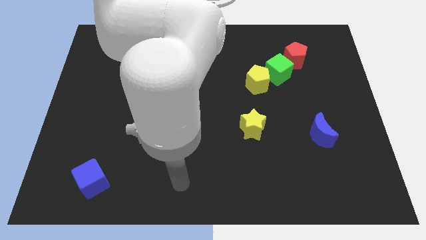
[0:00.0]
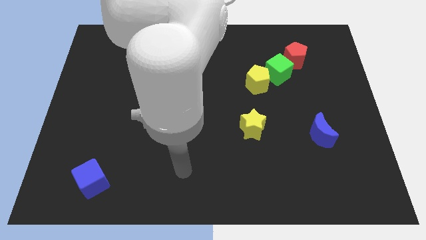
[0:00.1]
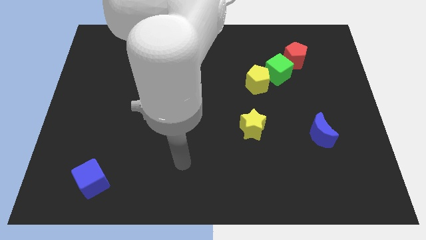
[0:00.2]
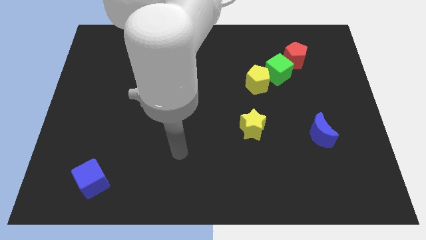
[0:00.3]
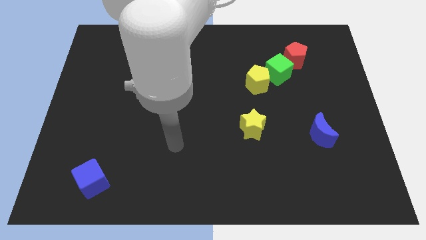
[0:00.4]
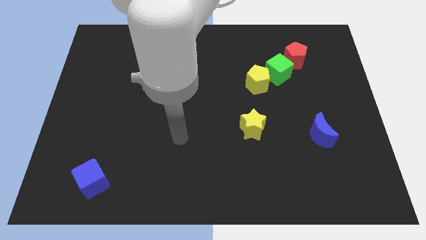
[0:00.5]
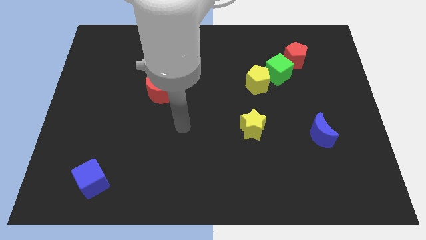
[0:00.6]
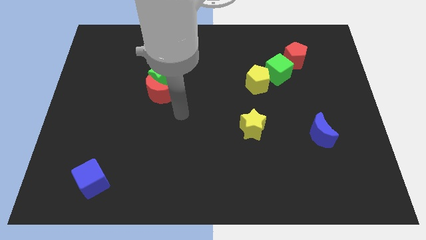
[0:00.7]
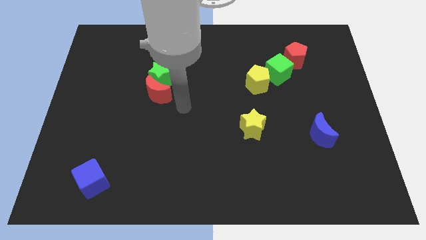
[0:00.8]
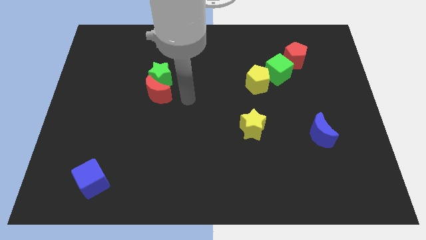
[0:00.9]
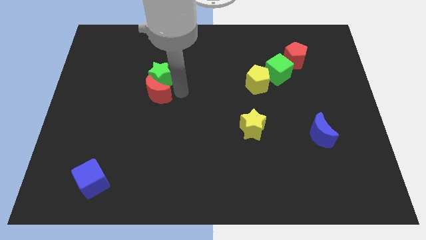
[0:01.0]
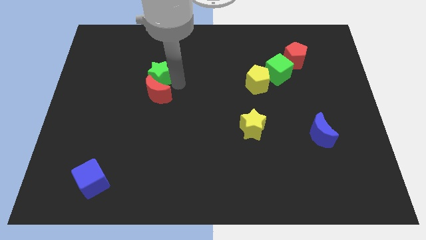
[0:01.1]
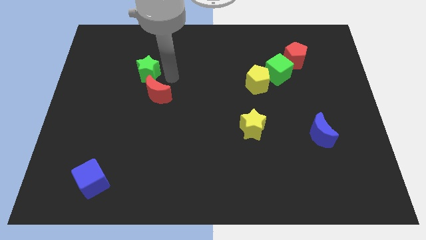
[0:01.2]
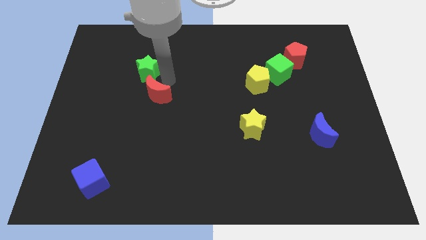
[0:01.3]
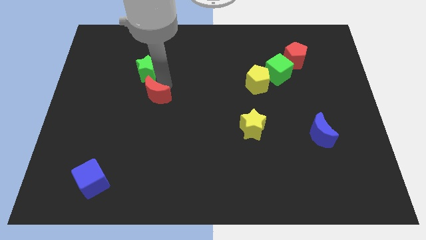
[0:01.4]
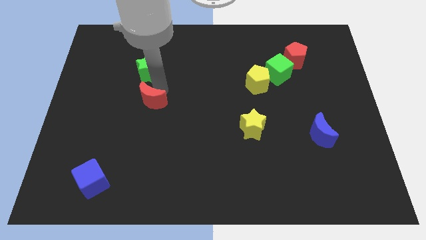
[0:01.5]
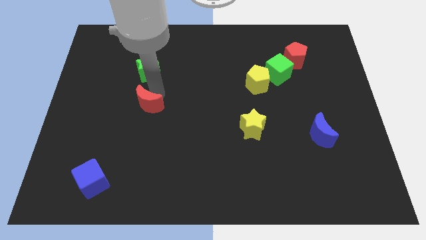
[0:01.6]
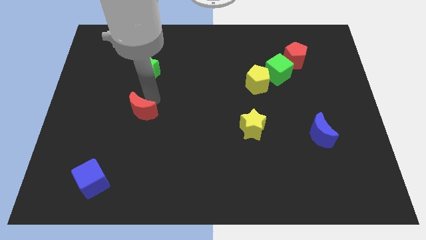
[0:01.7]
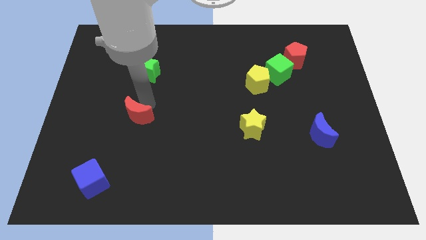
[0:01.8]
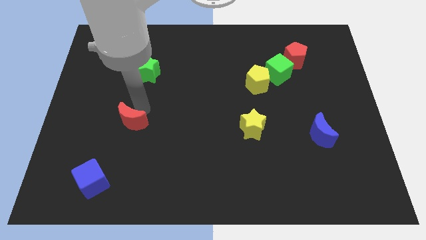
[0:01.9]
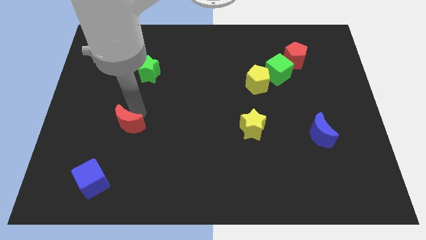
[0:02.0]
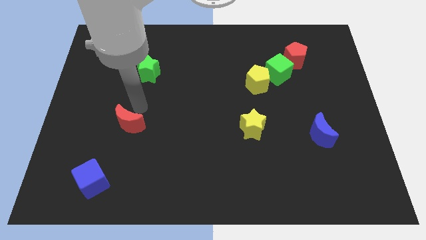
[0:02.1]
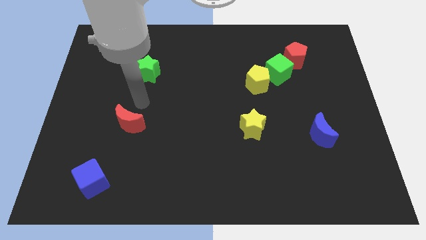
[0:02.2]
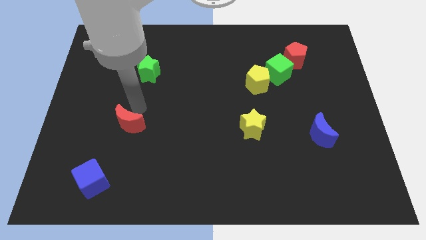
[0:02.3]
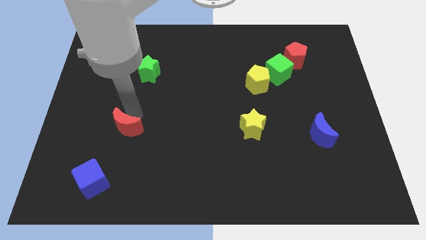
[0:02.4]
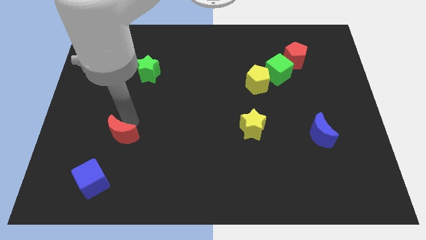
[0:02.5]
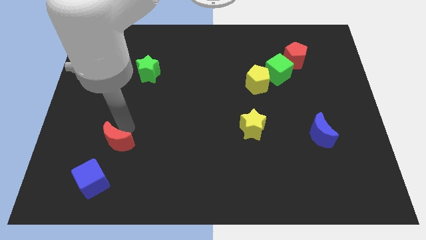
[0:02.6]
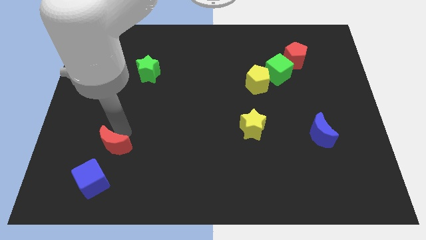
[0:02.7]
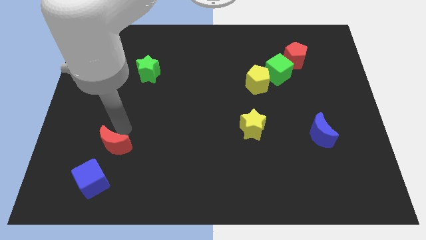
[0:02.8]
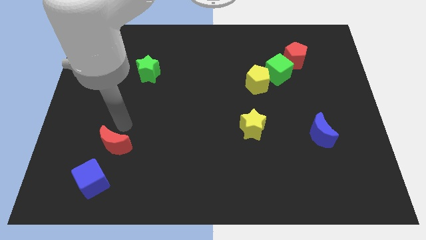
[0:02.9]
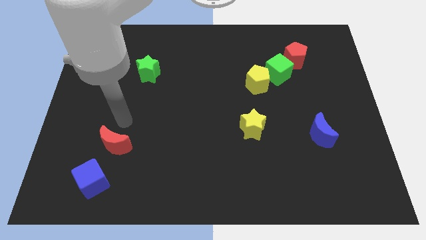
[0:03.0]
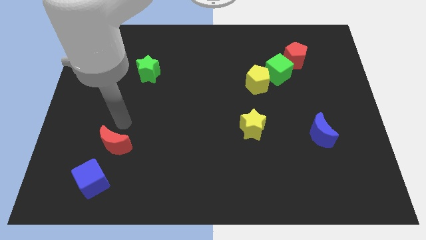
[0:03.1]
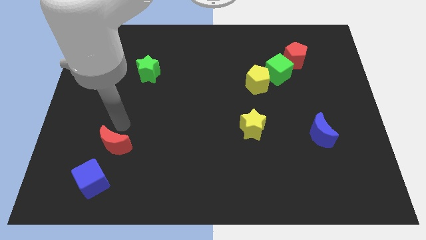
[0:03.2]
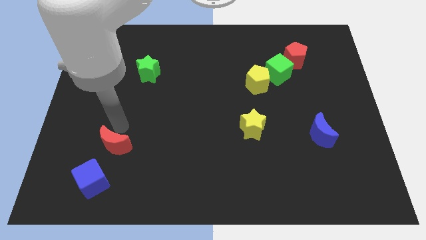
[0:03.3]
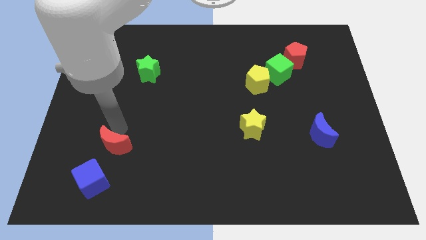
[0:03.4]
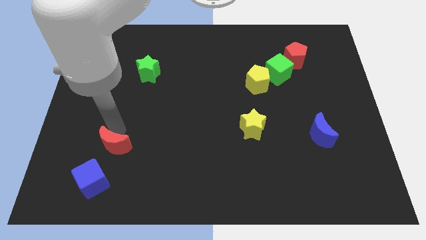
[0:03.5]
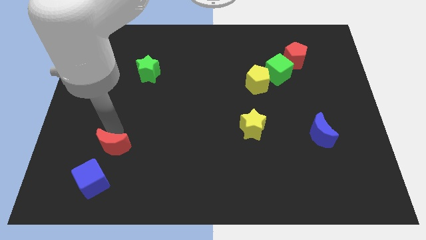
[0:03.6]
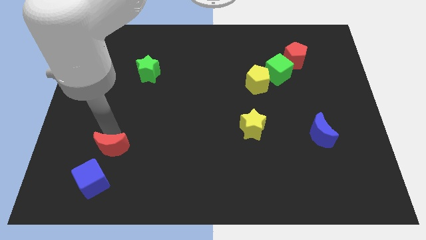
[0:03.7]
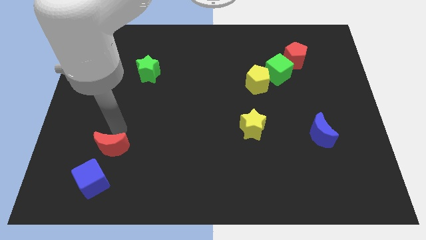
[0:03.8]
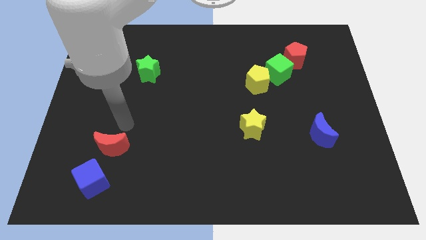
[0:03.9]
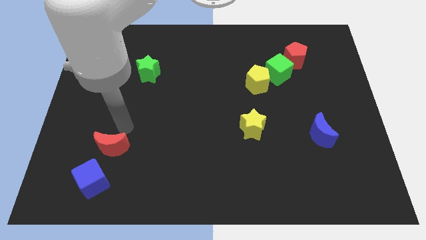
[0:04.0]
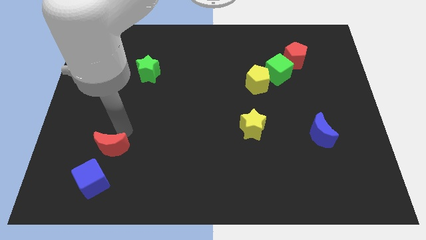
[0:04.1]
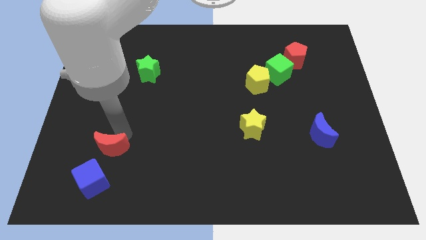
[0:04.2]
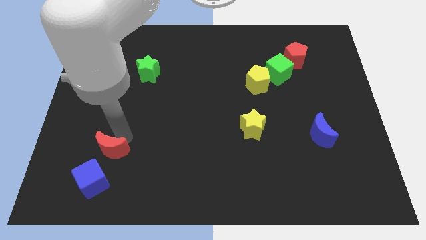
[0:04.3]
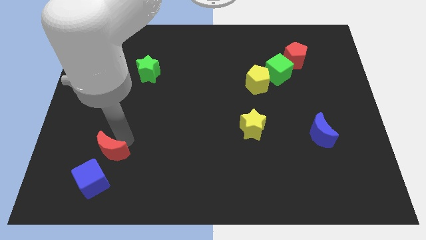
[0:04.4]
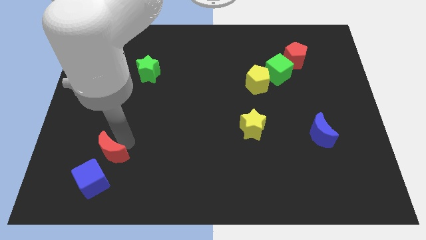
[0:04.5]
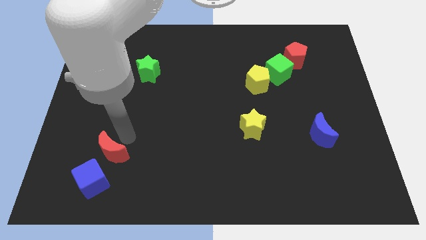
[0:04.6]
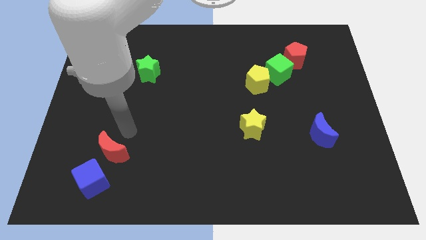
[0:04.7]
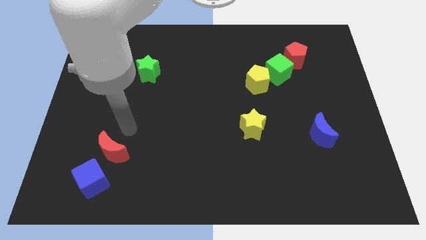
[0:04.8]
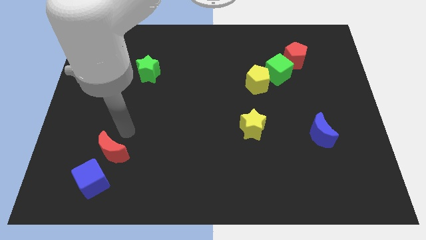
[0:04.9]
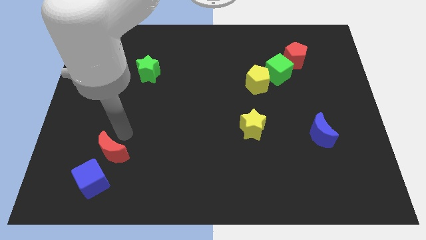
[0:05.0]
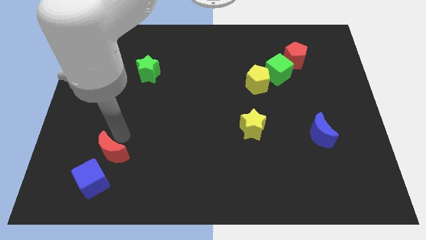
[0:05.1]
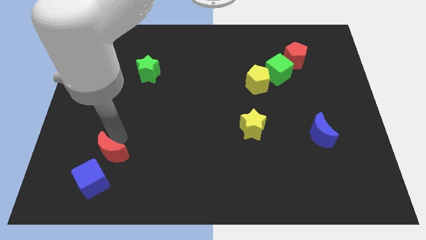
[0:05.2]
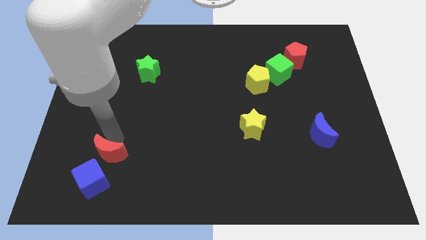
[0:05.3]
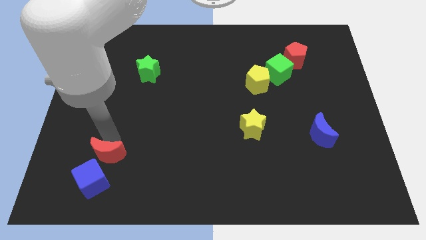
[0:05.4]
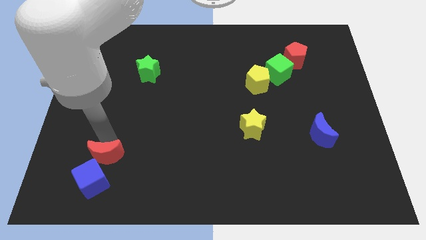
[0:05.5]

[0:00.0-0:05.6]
move the red moon close to the blue cube

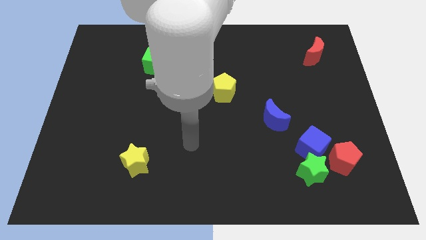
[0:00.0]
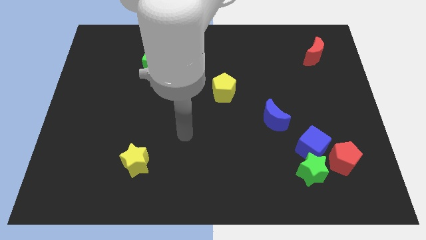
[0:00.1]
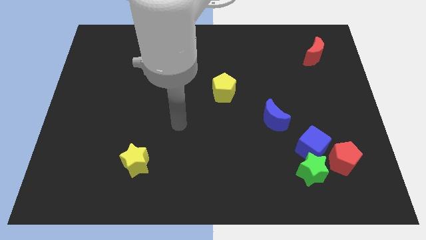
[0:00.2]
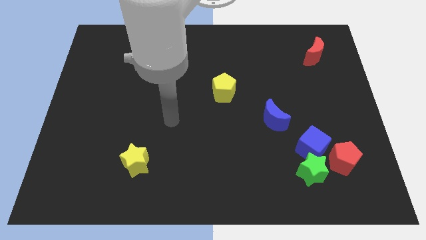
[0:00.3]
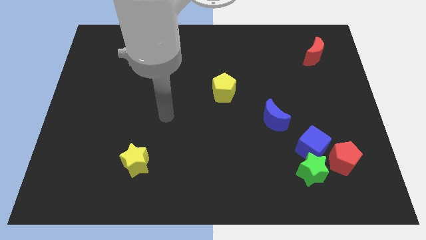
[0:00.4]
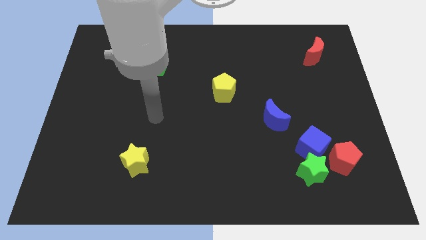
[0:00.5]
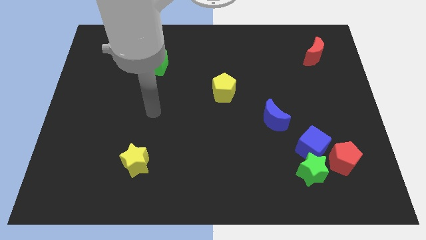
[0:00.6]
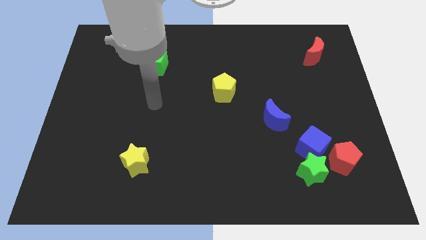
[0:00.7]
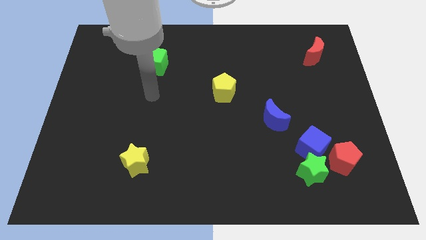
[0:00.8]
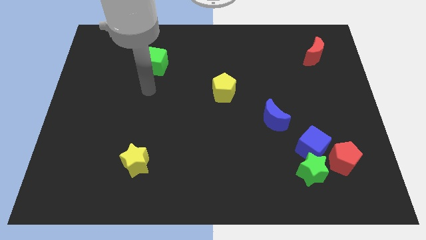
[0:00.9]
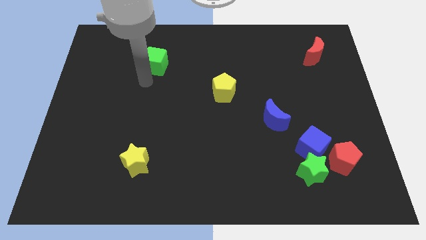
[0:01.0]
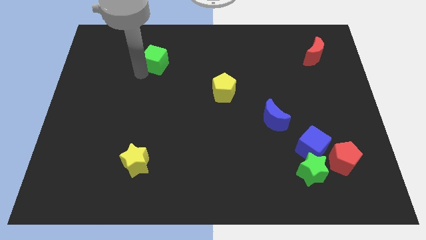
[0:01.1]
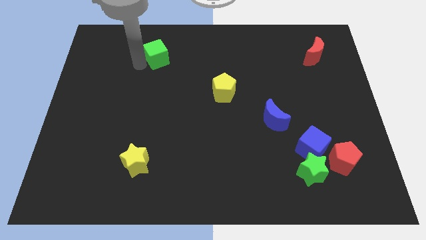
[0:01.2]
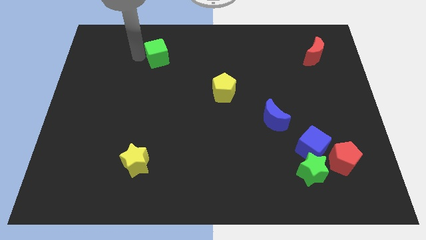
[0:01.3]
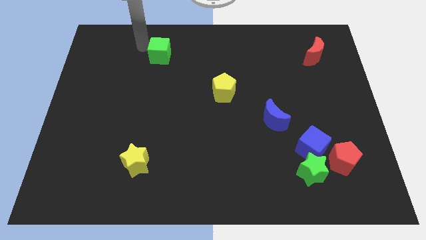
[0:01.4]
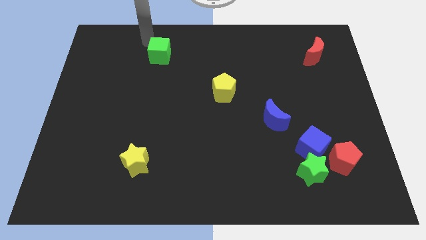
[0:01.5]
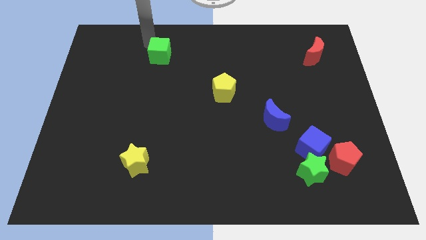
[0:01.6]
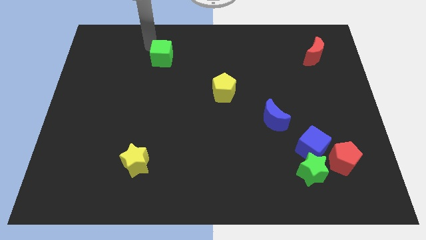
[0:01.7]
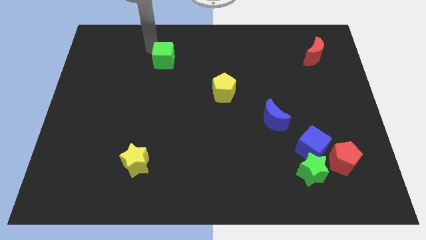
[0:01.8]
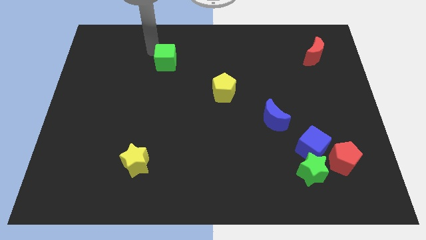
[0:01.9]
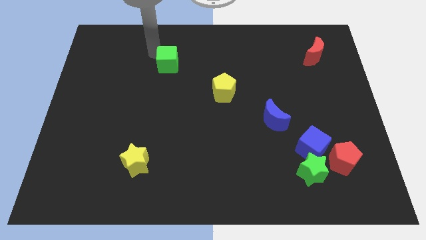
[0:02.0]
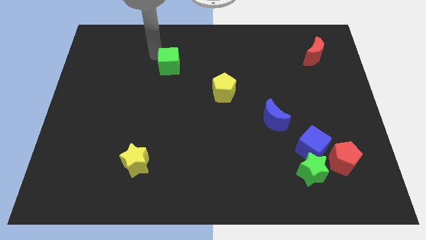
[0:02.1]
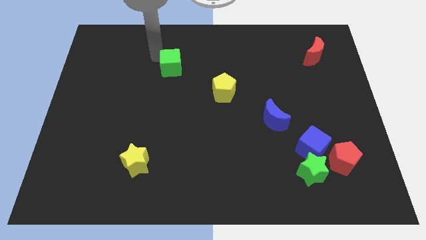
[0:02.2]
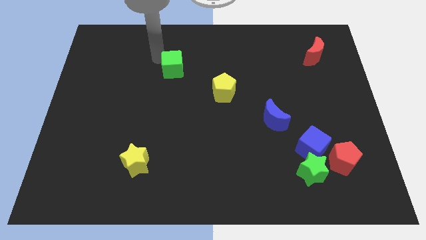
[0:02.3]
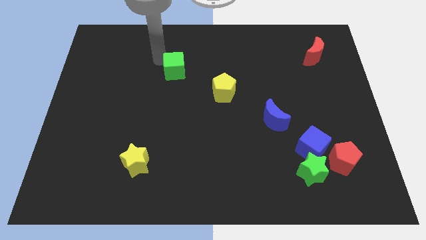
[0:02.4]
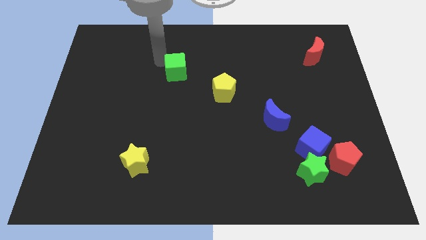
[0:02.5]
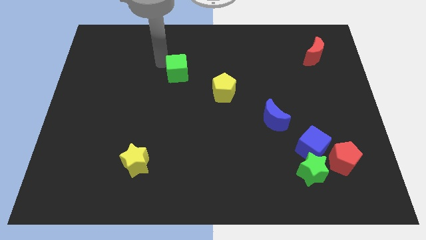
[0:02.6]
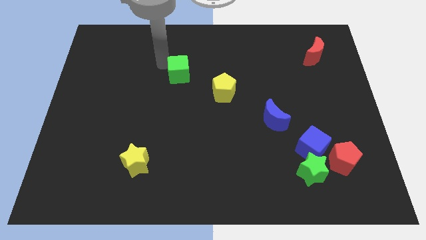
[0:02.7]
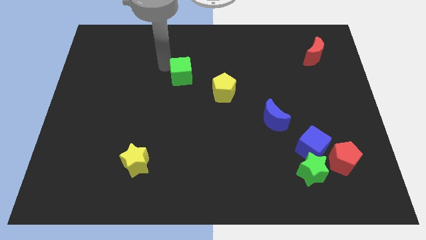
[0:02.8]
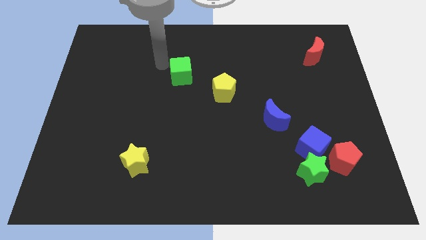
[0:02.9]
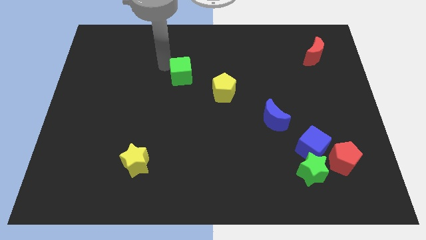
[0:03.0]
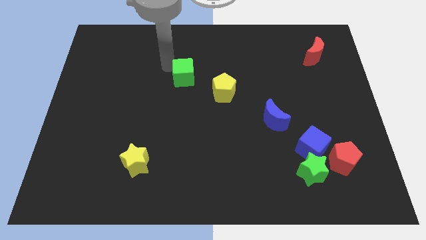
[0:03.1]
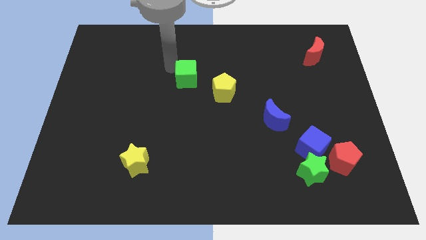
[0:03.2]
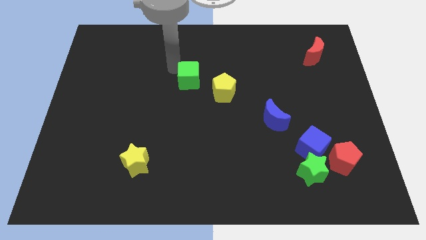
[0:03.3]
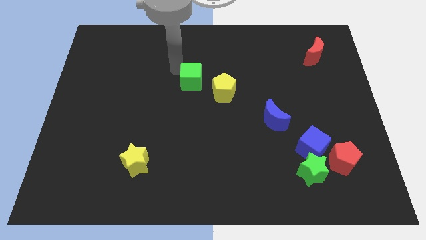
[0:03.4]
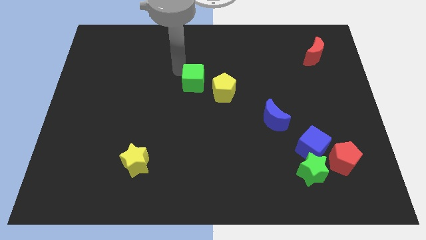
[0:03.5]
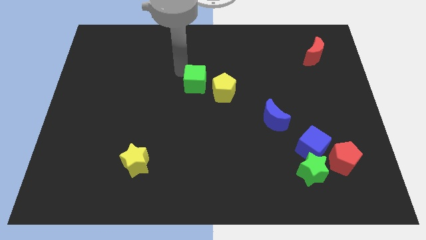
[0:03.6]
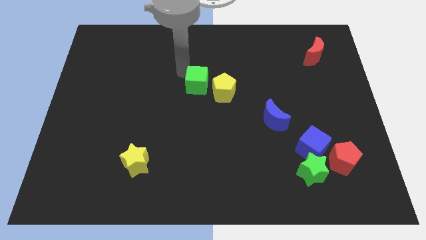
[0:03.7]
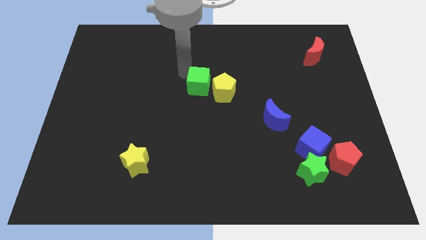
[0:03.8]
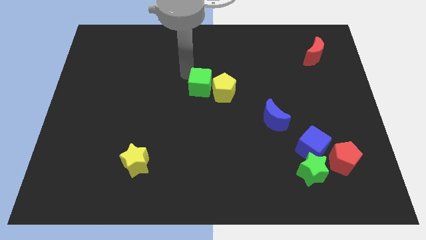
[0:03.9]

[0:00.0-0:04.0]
push the green cube next to the yellow pentagon
